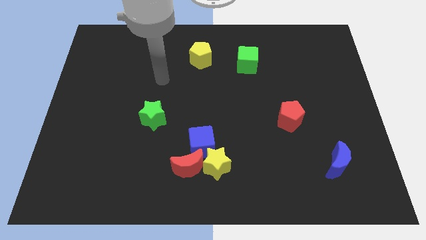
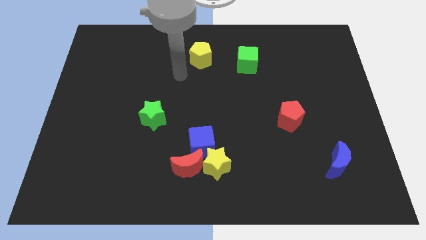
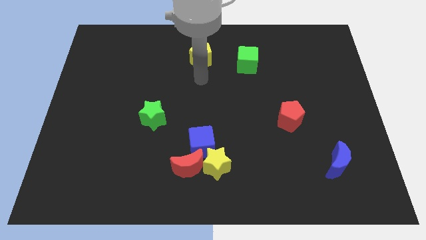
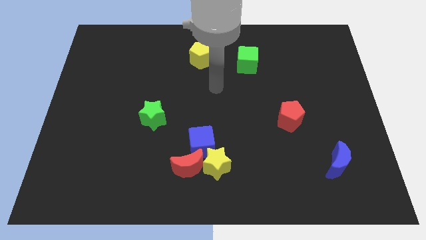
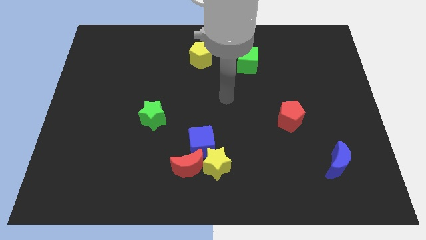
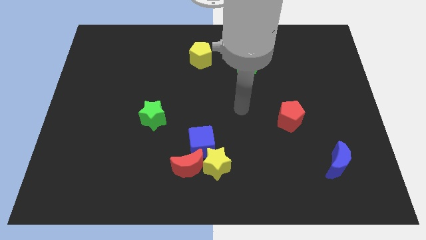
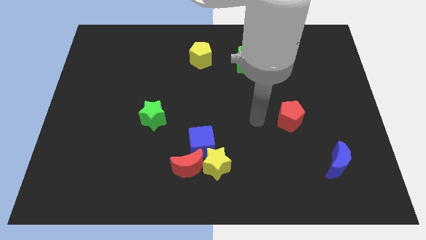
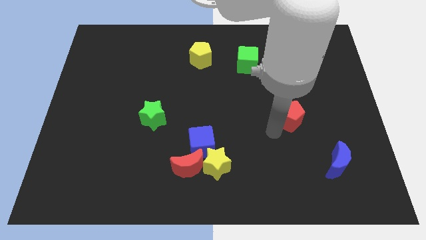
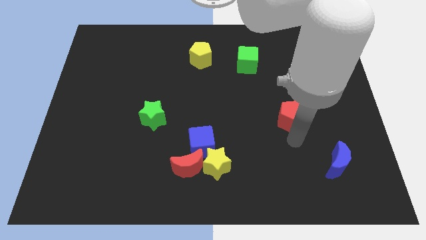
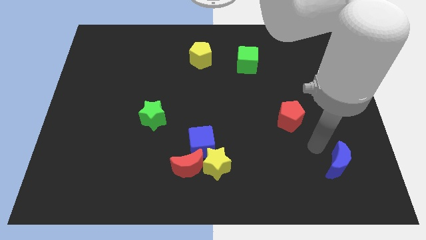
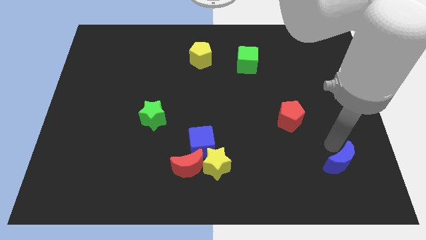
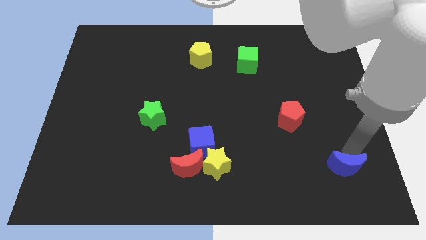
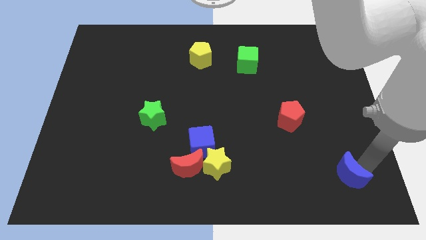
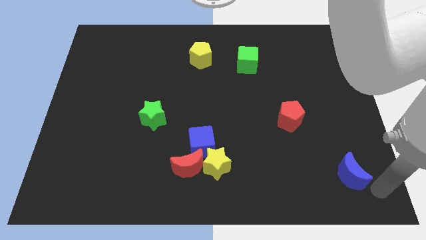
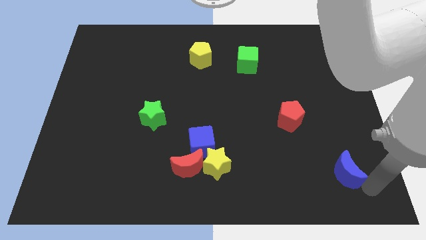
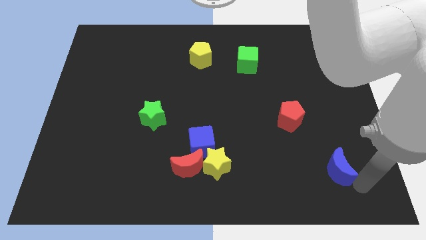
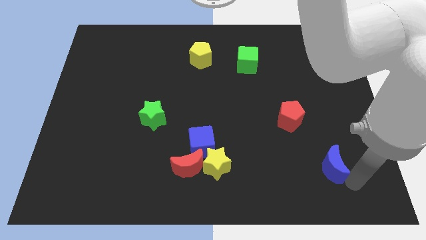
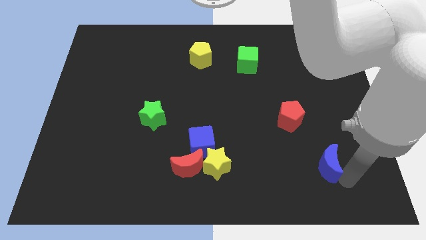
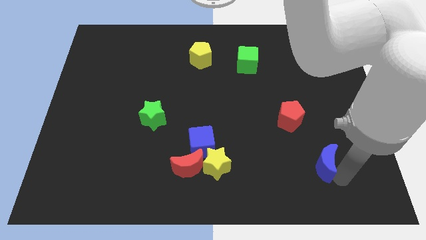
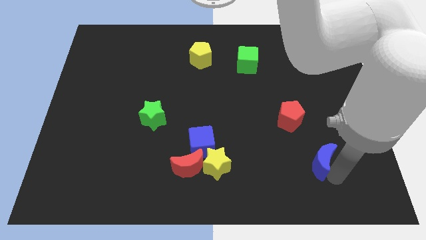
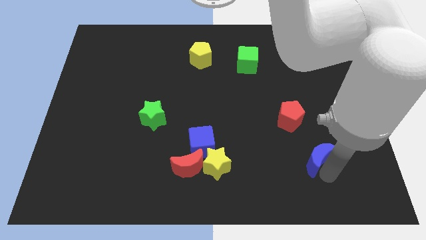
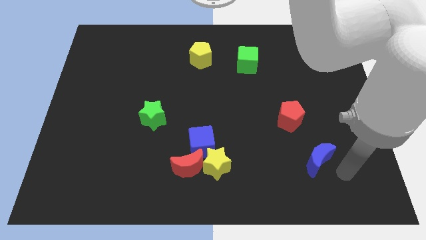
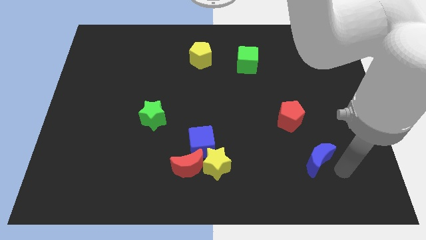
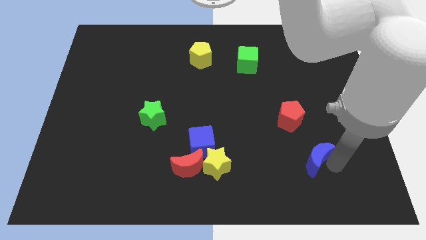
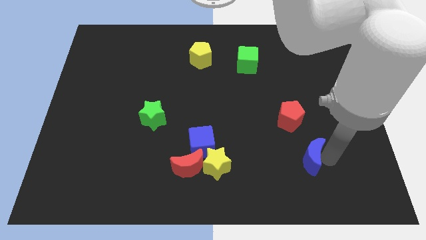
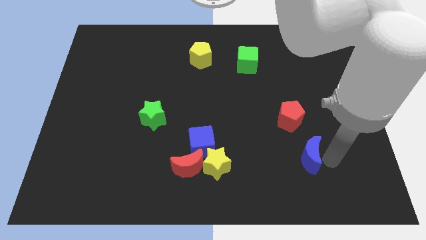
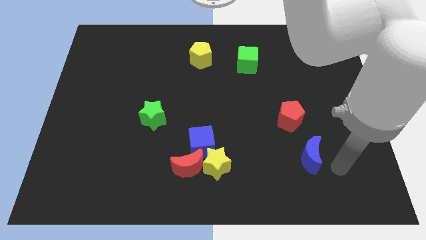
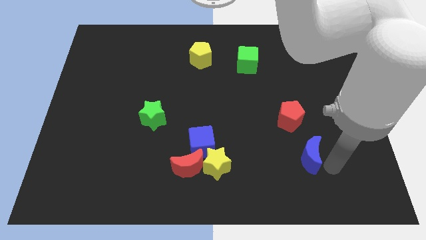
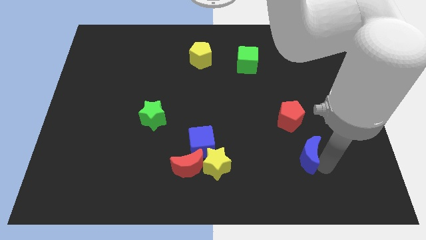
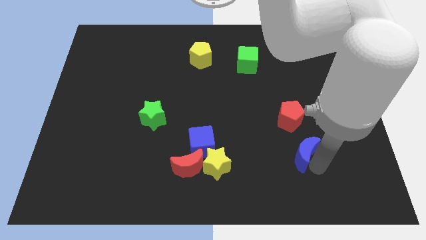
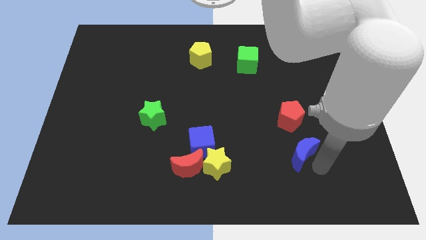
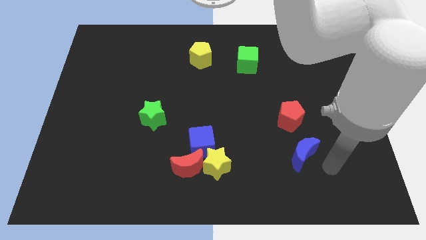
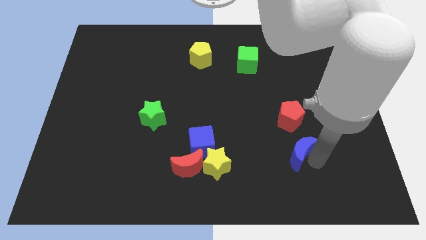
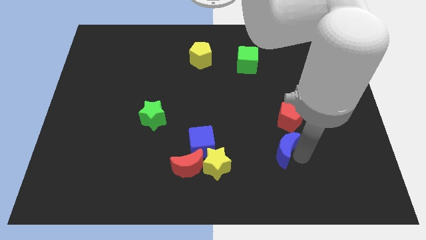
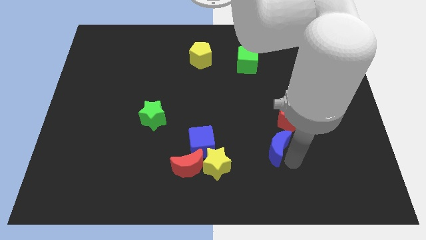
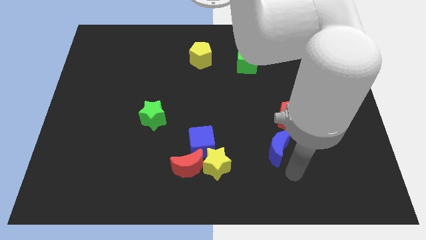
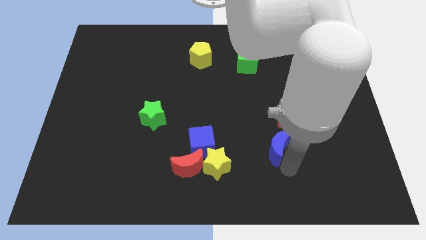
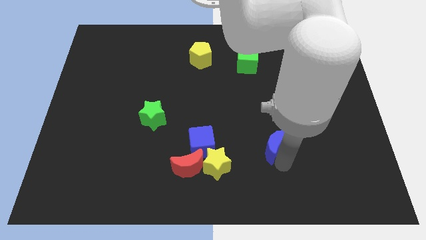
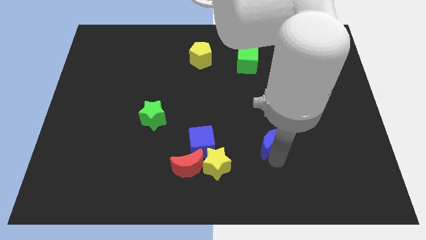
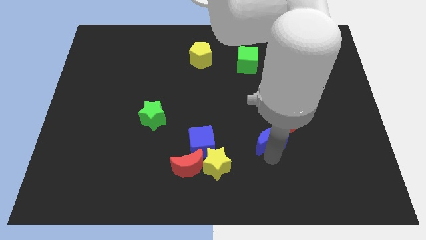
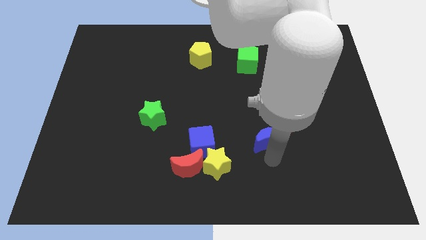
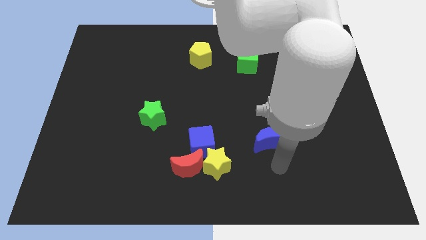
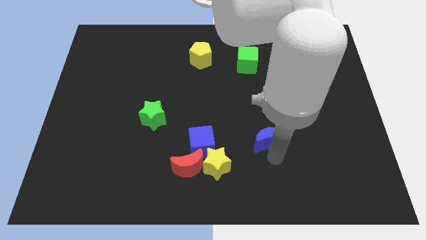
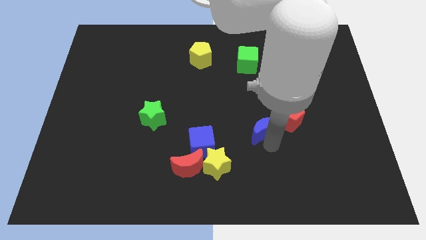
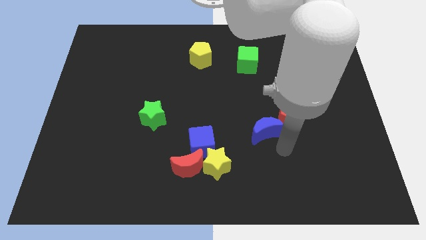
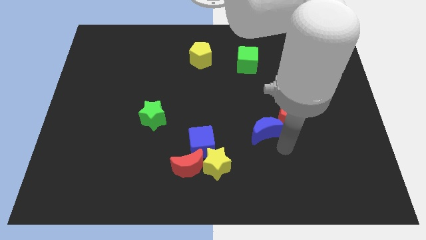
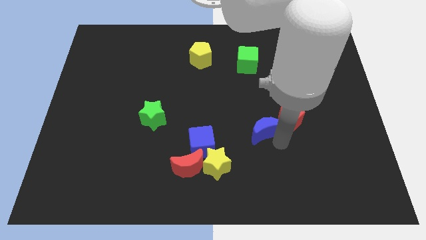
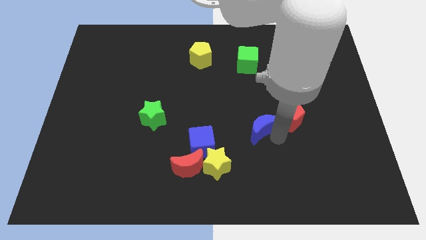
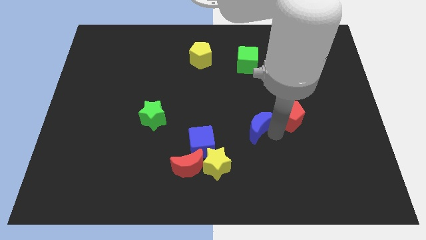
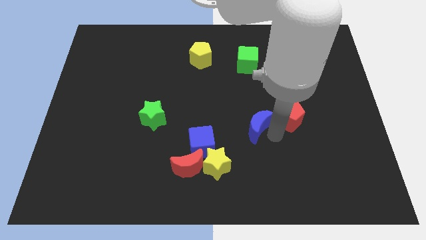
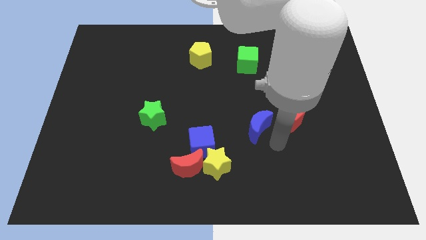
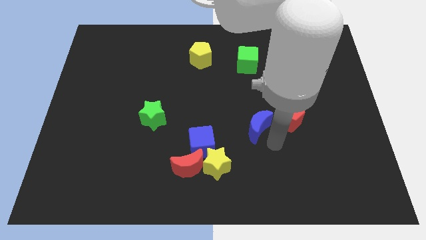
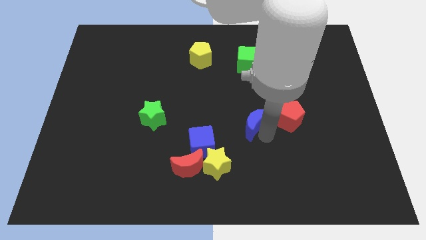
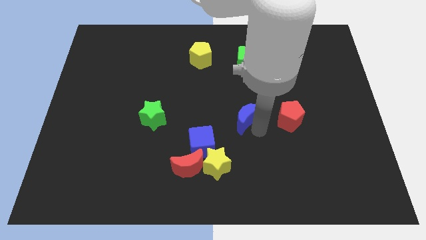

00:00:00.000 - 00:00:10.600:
move the blue moon diagonally upwards and left

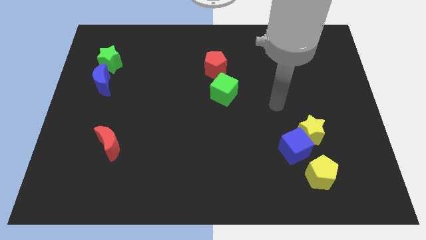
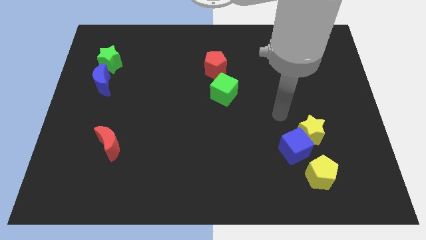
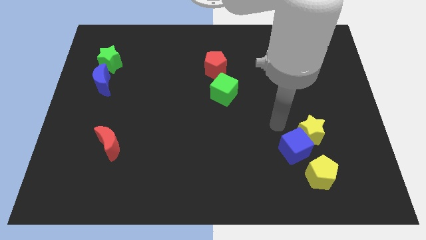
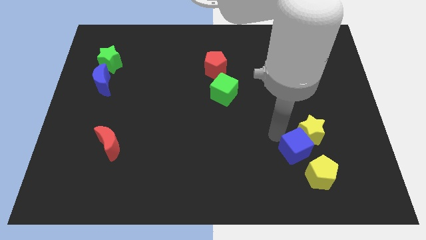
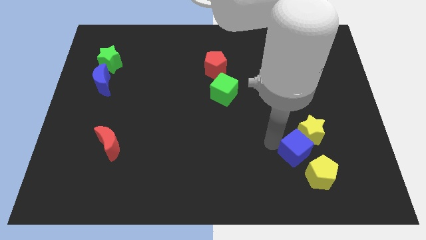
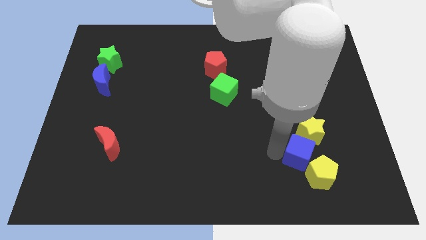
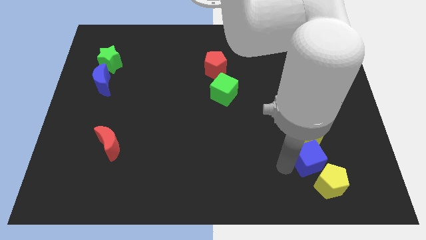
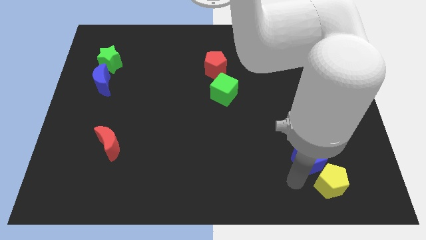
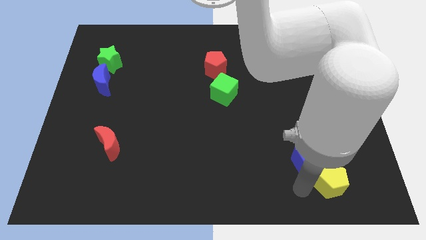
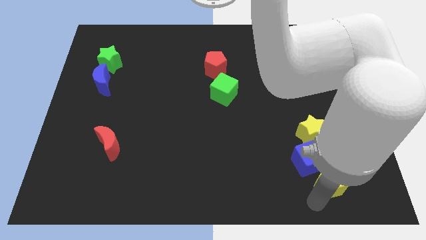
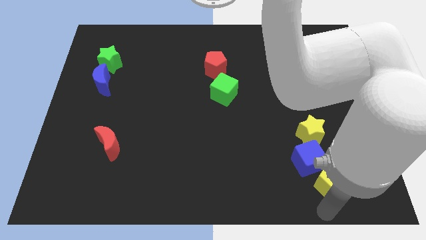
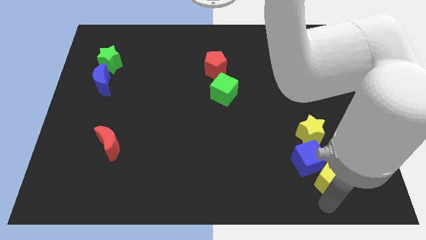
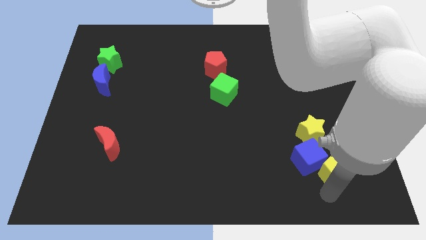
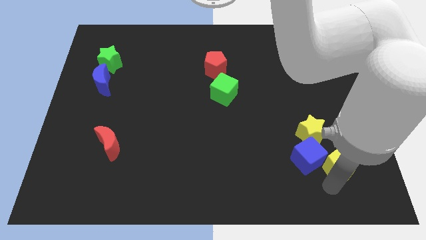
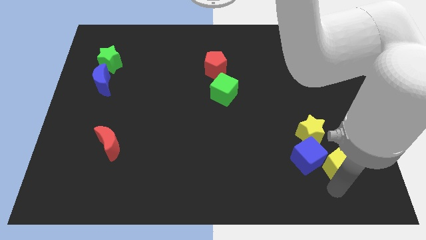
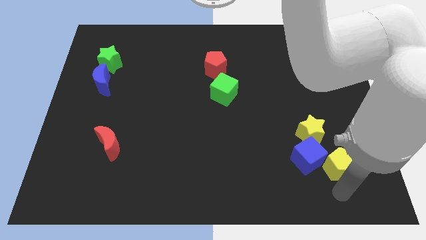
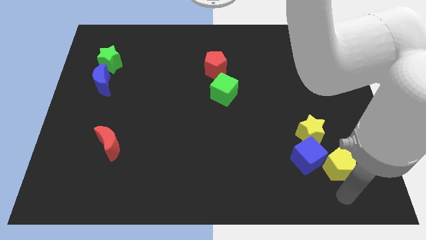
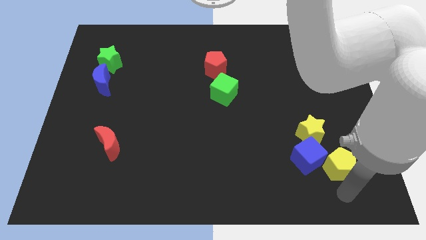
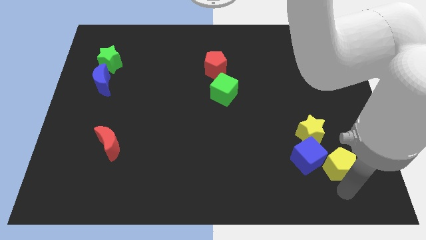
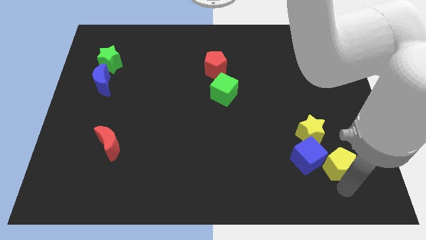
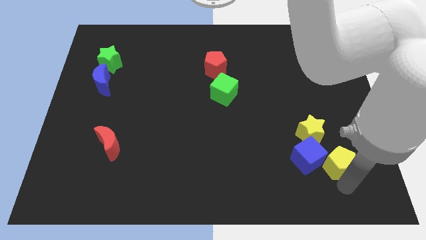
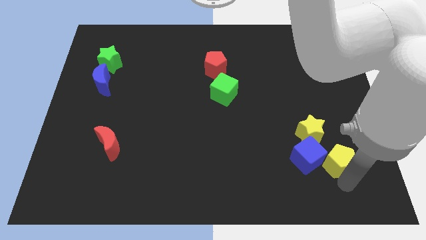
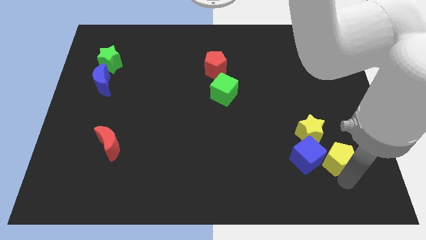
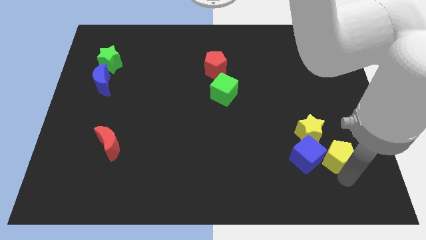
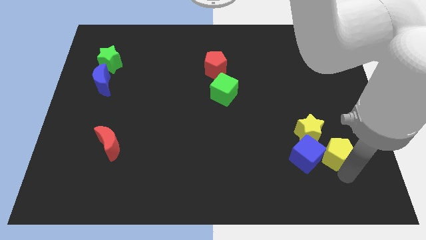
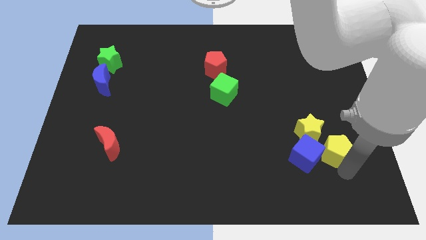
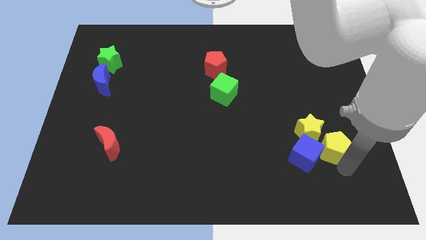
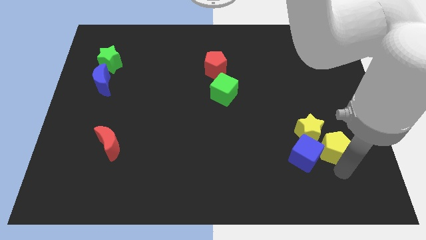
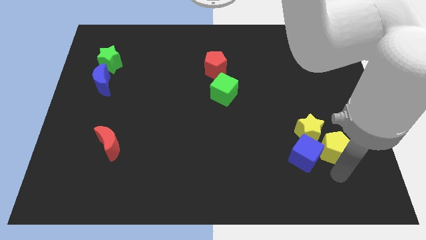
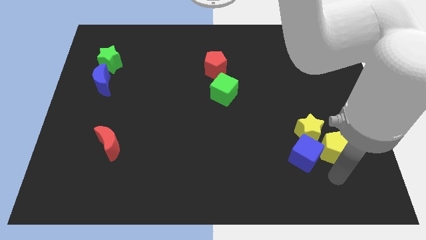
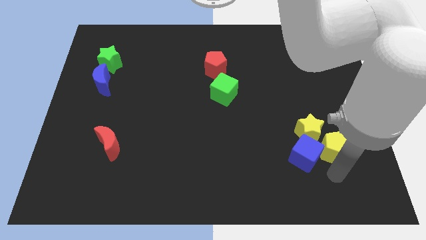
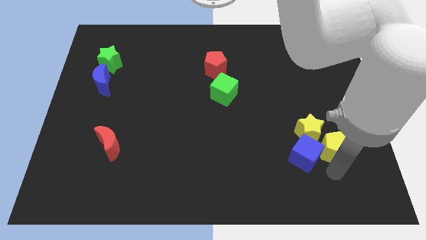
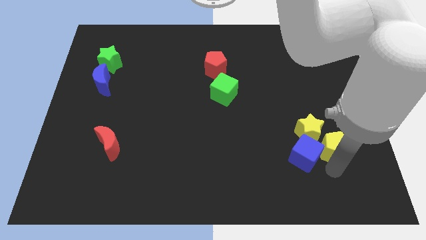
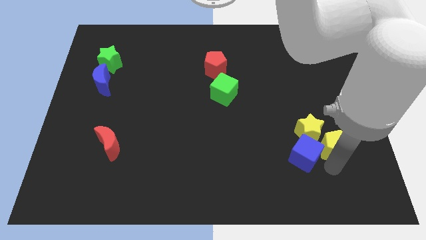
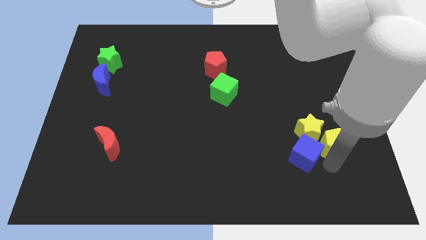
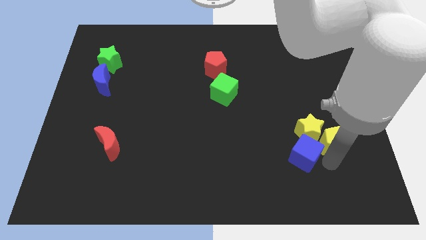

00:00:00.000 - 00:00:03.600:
slide the yellow pentagon slightly upwards
